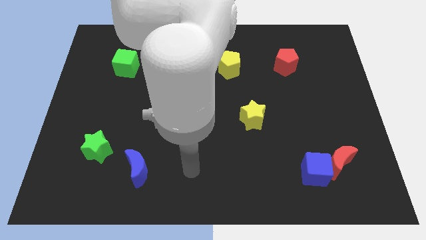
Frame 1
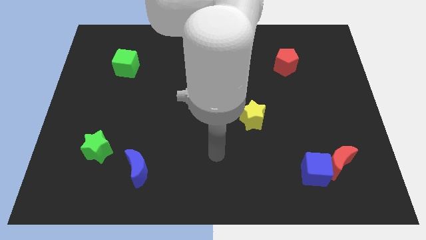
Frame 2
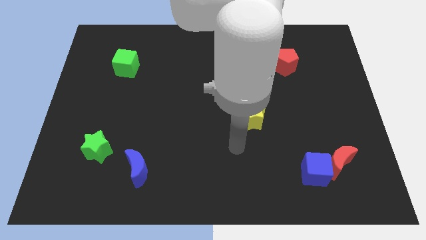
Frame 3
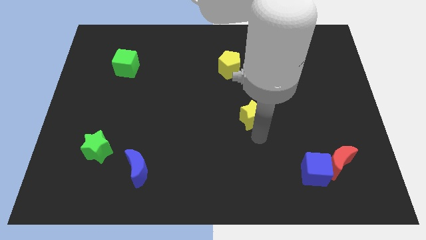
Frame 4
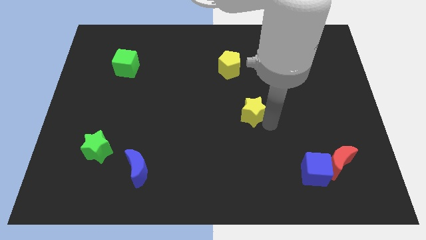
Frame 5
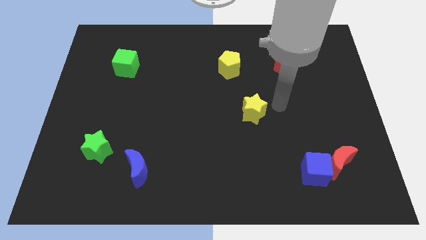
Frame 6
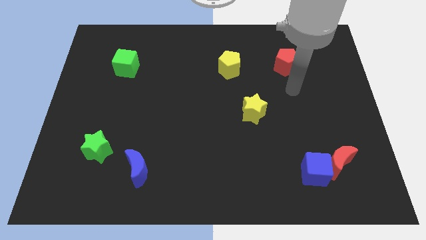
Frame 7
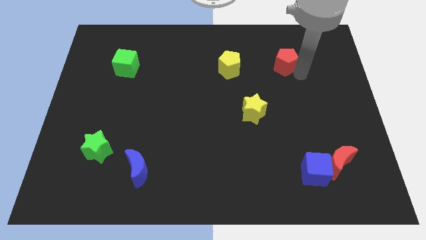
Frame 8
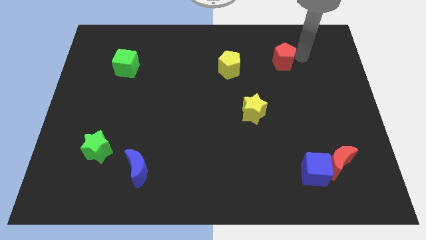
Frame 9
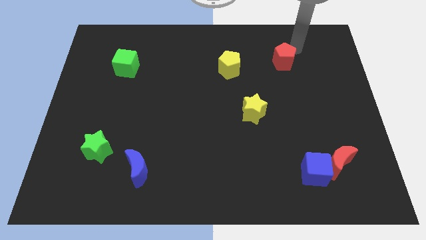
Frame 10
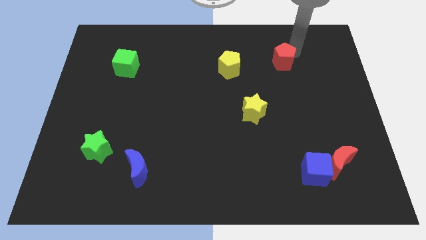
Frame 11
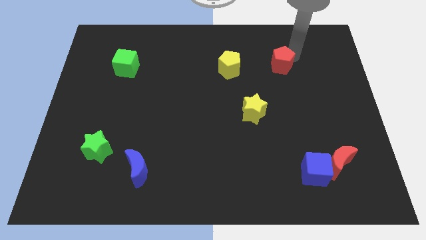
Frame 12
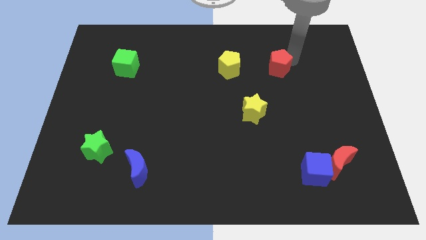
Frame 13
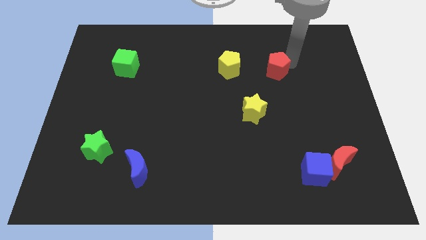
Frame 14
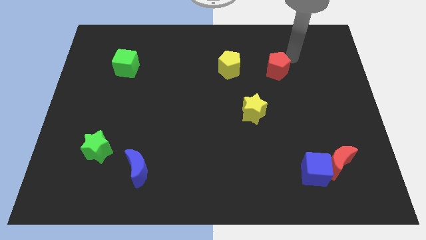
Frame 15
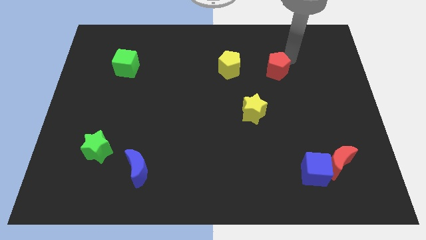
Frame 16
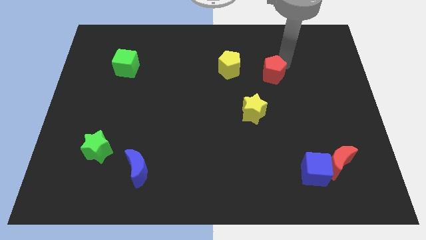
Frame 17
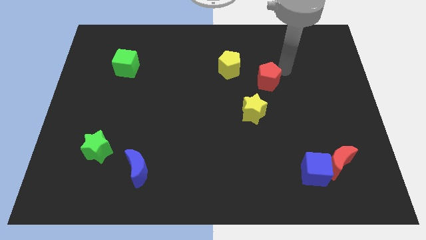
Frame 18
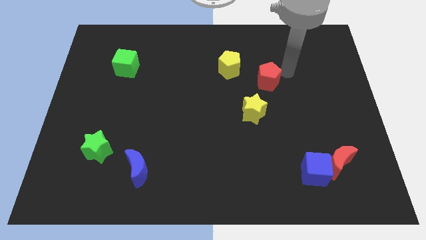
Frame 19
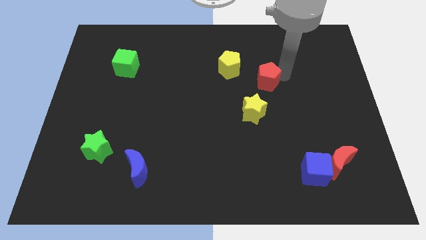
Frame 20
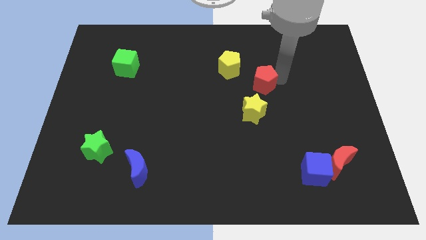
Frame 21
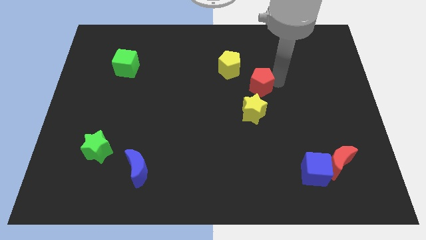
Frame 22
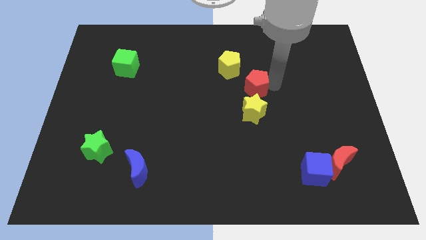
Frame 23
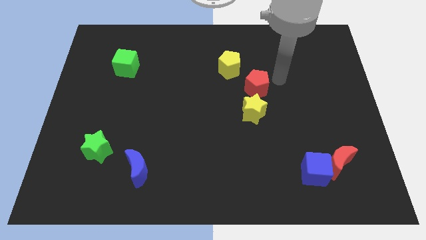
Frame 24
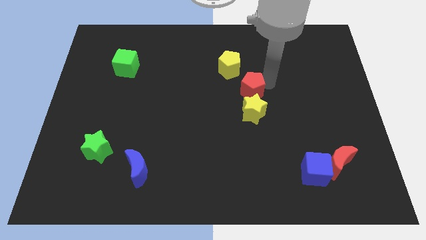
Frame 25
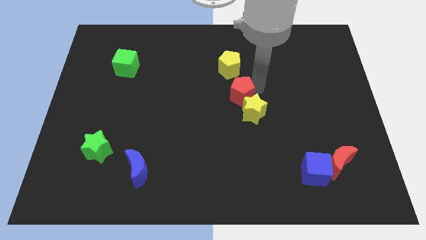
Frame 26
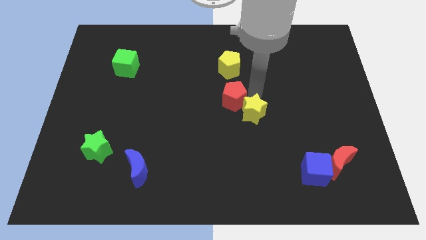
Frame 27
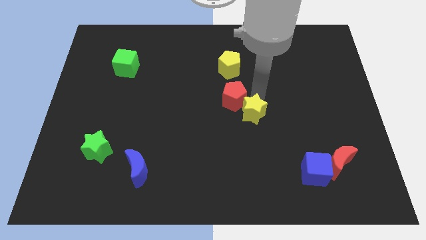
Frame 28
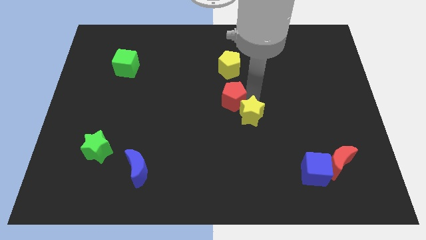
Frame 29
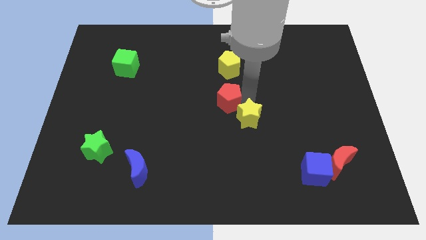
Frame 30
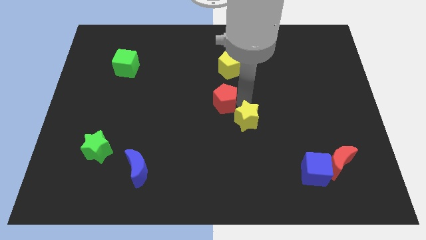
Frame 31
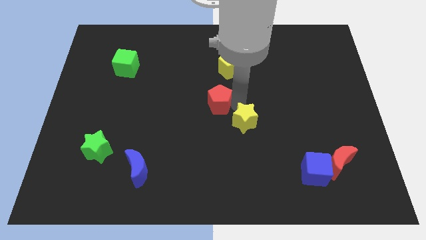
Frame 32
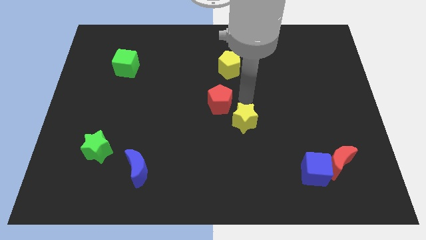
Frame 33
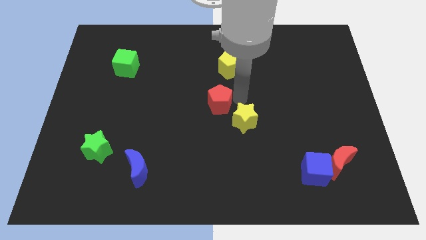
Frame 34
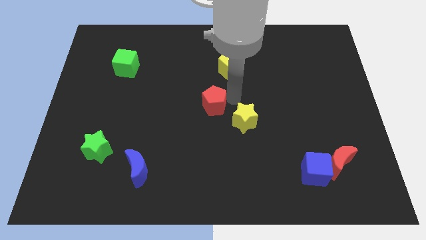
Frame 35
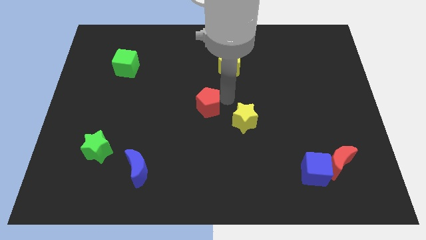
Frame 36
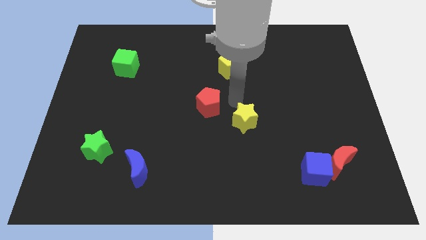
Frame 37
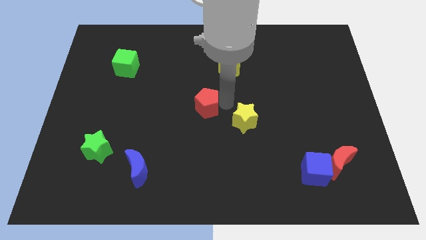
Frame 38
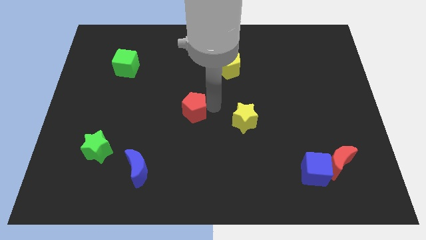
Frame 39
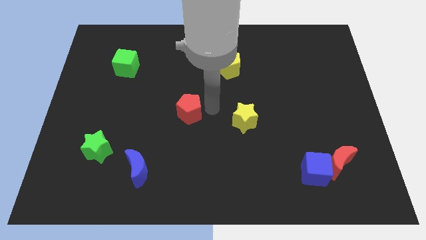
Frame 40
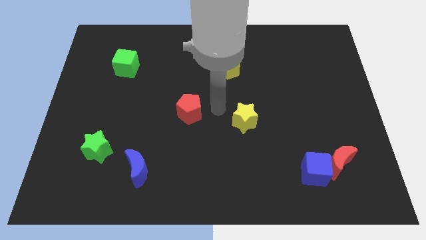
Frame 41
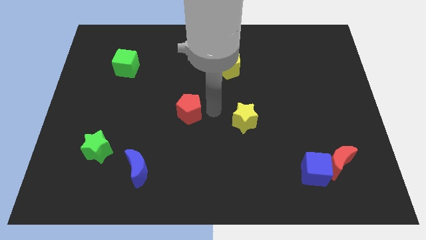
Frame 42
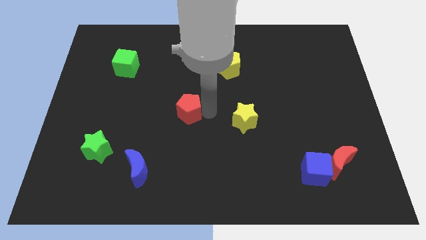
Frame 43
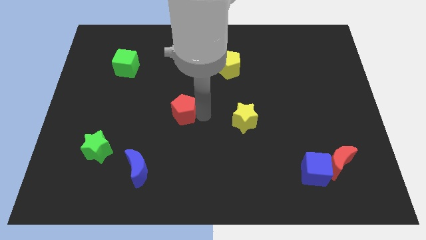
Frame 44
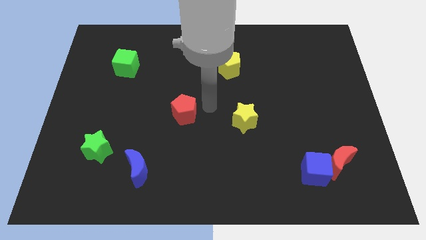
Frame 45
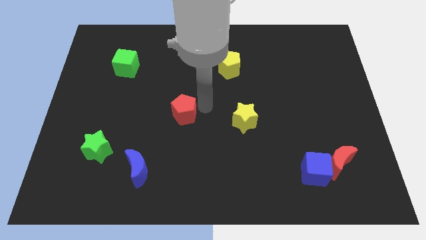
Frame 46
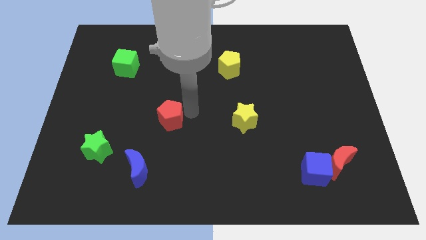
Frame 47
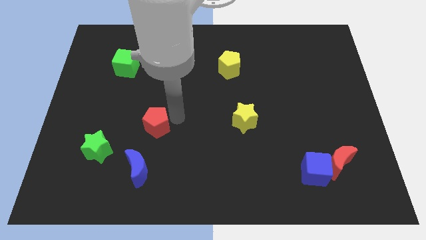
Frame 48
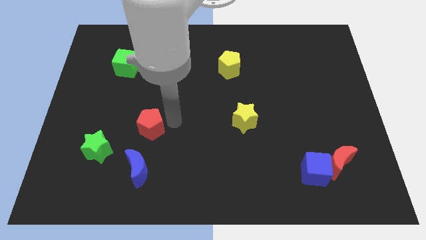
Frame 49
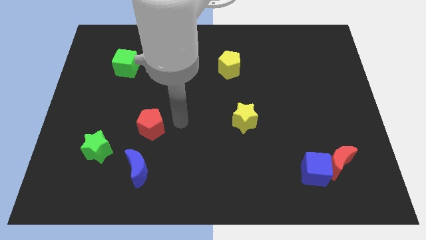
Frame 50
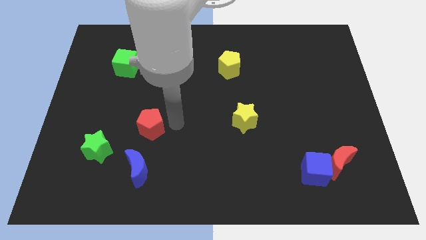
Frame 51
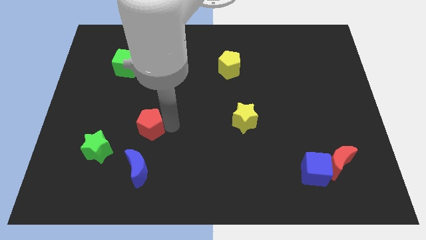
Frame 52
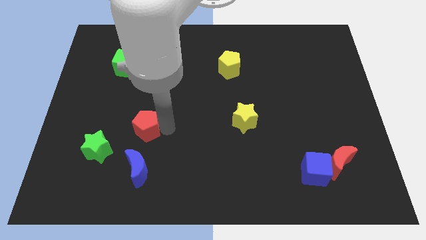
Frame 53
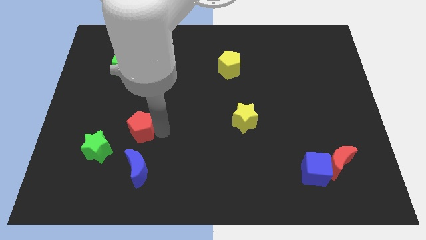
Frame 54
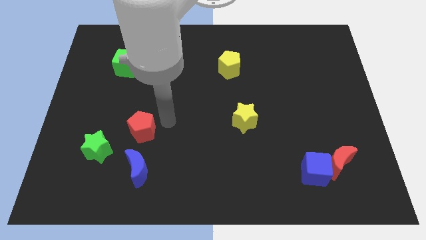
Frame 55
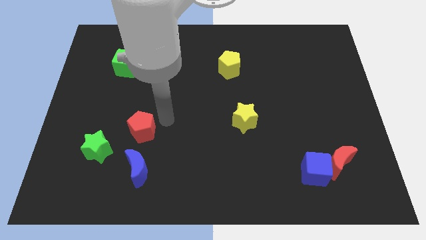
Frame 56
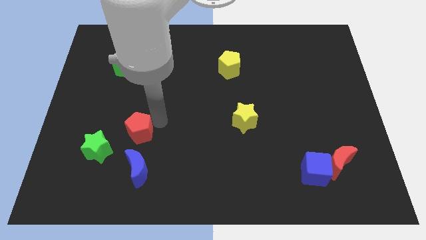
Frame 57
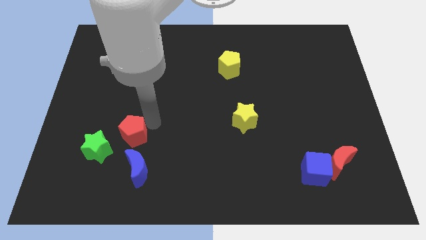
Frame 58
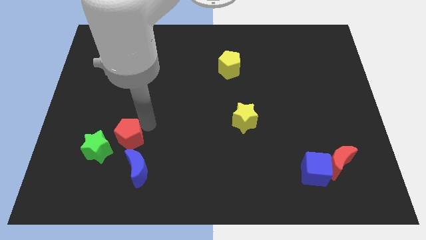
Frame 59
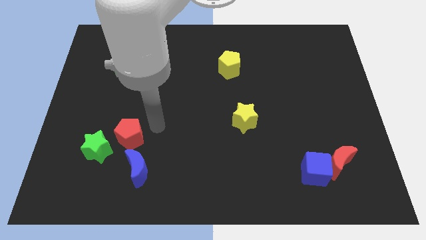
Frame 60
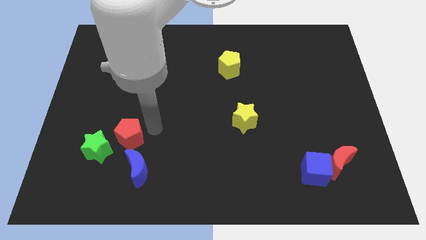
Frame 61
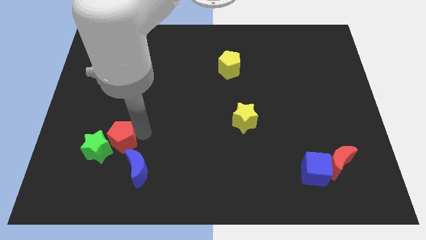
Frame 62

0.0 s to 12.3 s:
move the red pentagon close to the green star

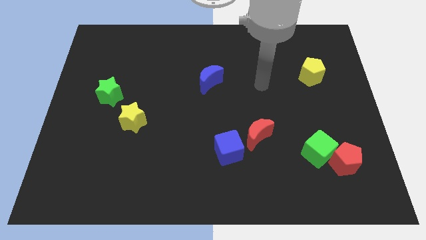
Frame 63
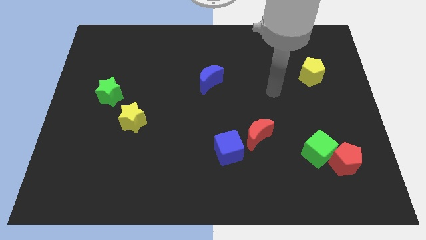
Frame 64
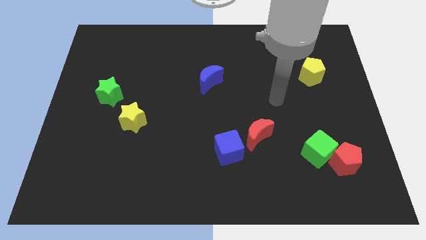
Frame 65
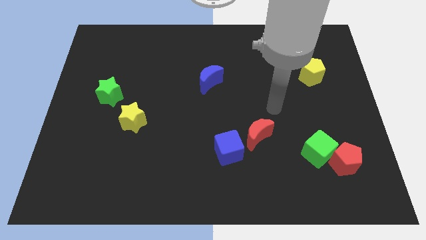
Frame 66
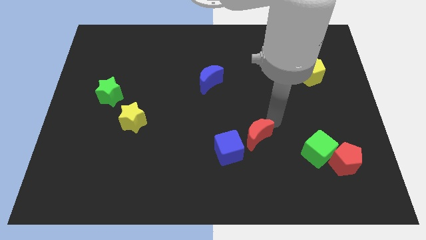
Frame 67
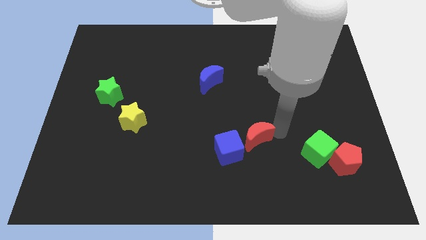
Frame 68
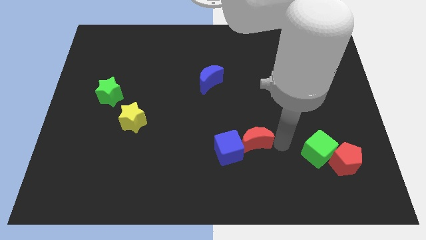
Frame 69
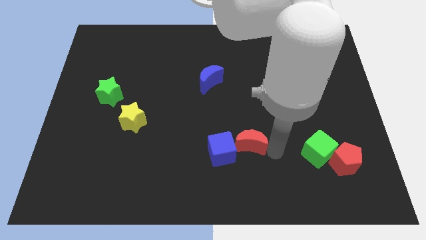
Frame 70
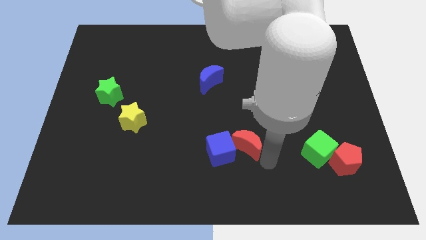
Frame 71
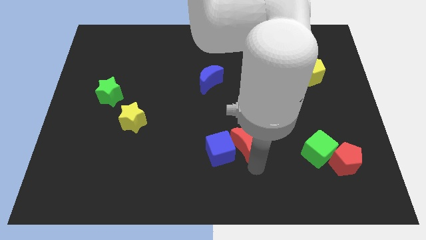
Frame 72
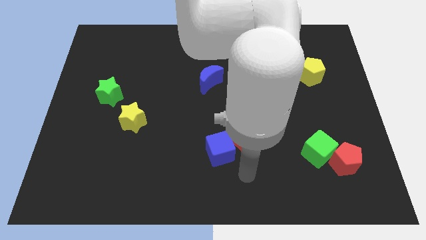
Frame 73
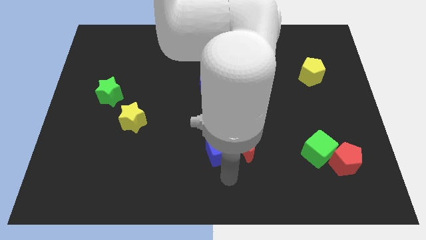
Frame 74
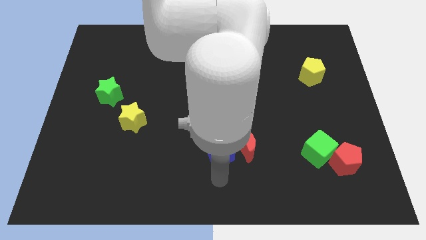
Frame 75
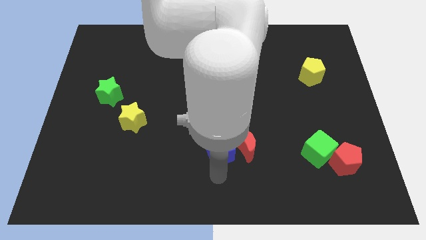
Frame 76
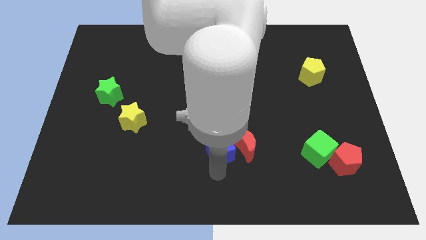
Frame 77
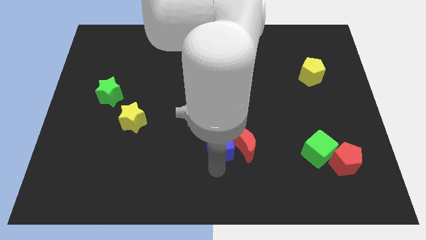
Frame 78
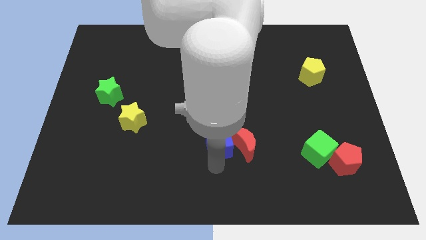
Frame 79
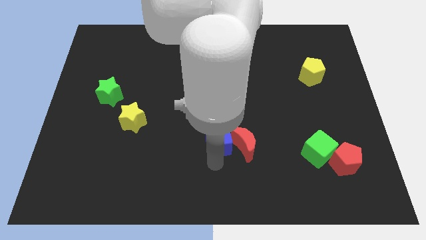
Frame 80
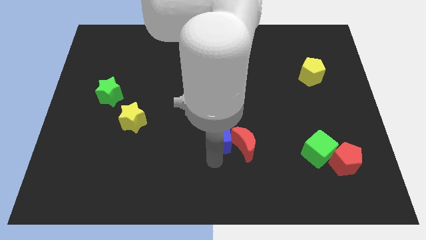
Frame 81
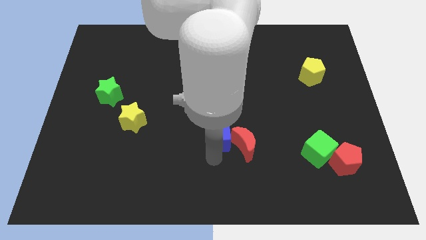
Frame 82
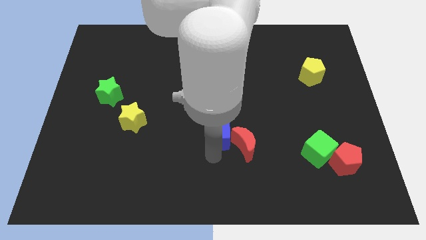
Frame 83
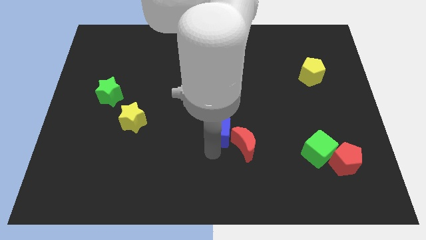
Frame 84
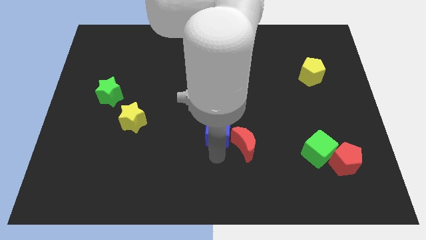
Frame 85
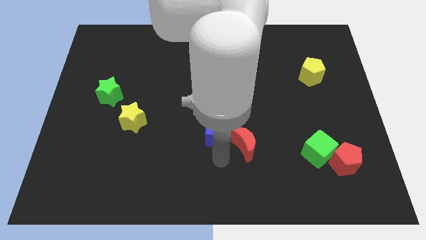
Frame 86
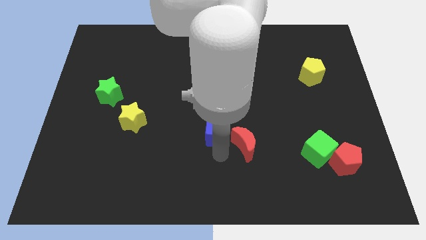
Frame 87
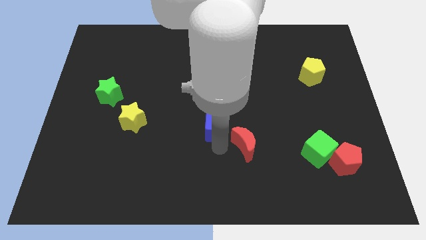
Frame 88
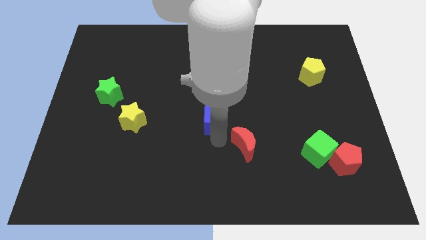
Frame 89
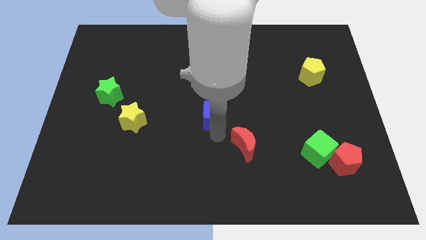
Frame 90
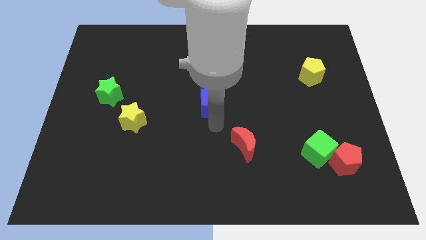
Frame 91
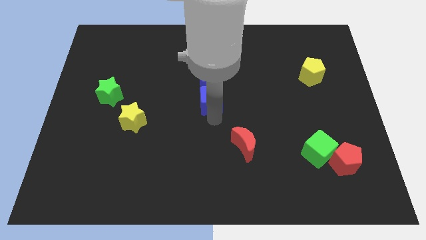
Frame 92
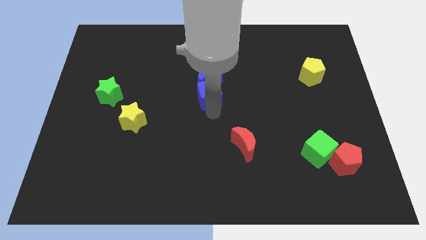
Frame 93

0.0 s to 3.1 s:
put the blue cube to the blue moon
